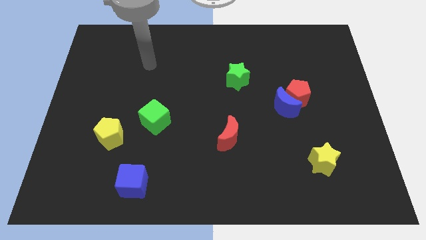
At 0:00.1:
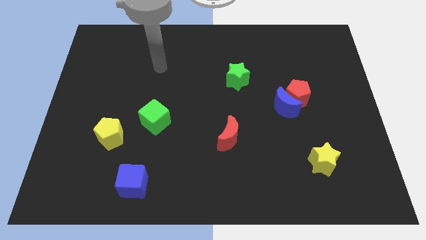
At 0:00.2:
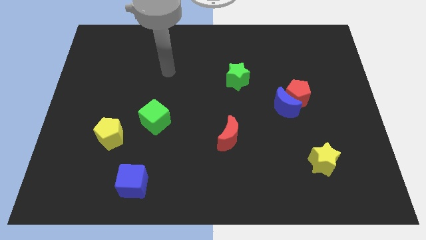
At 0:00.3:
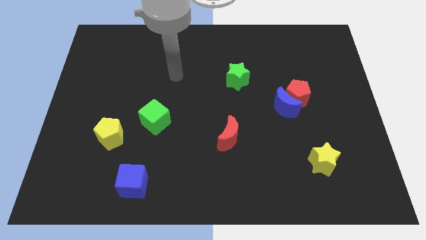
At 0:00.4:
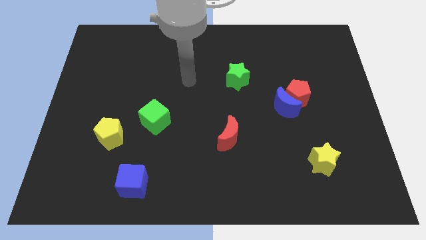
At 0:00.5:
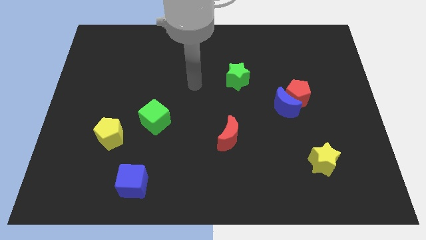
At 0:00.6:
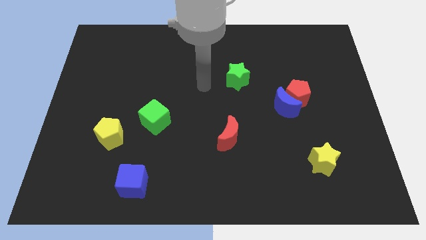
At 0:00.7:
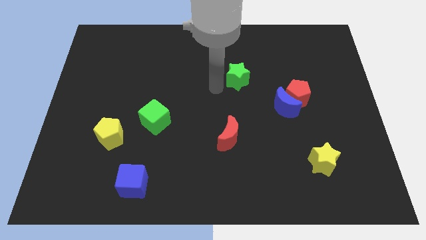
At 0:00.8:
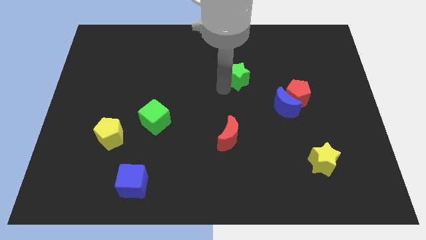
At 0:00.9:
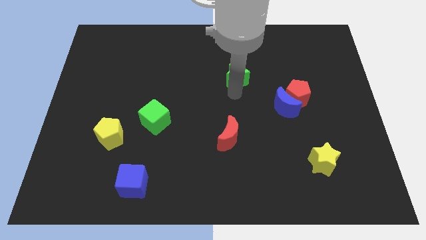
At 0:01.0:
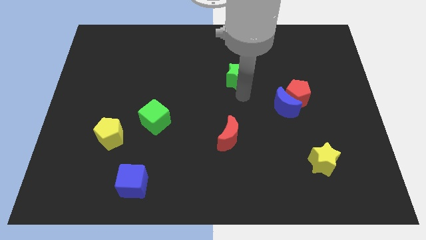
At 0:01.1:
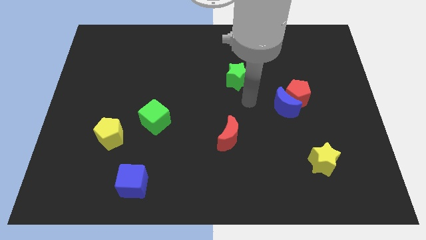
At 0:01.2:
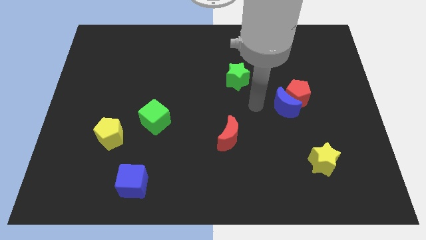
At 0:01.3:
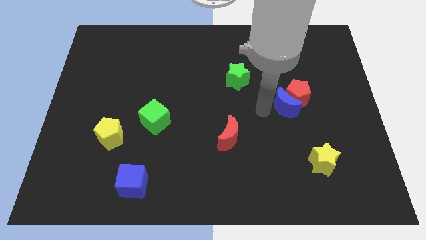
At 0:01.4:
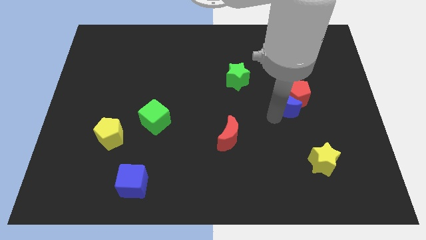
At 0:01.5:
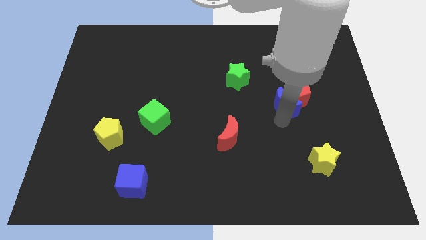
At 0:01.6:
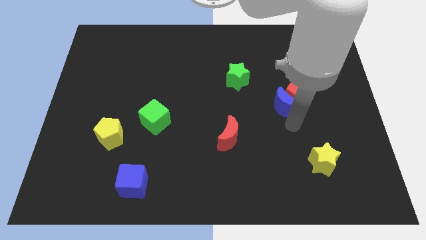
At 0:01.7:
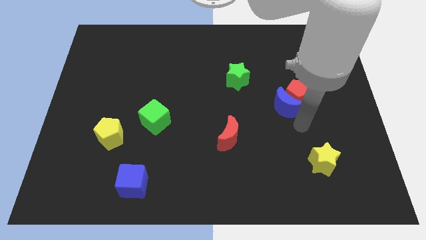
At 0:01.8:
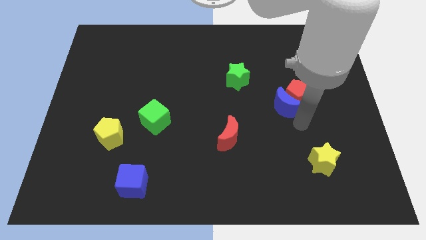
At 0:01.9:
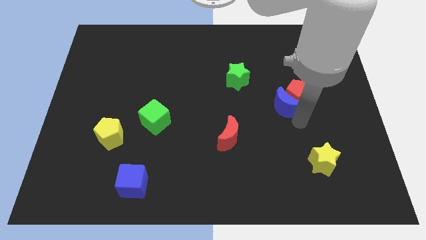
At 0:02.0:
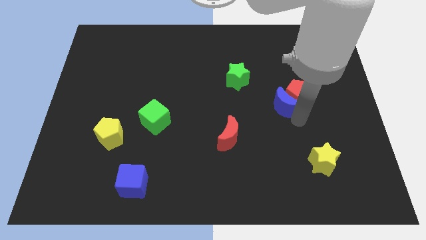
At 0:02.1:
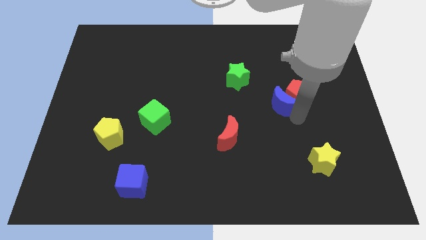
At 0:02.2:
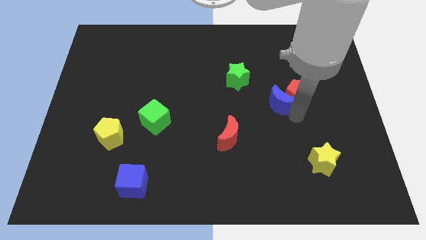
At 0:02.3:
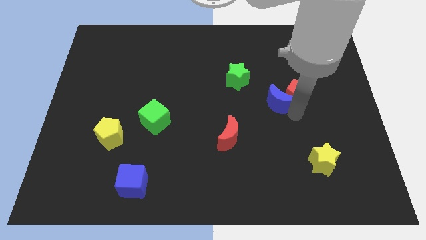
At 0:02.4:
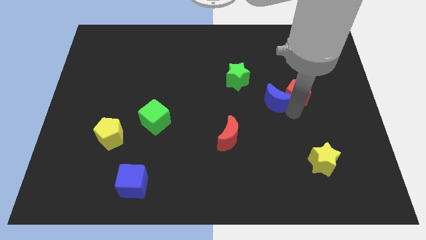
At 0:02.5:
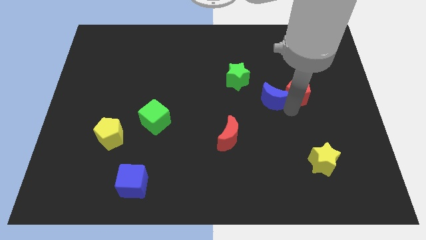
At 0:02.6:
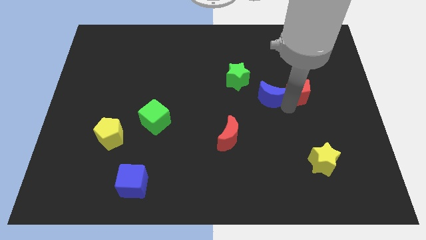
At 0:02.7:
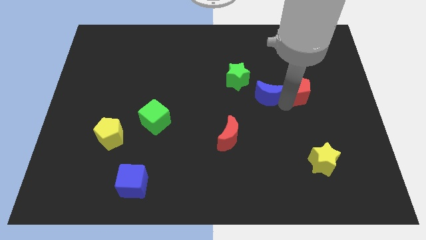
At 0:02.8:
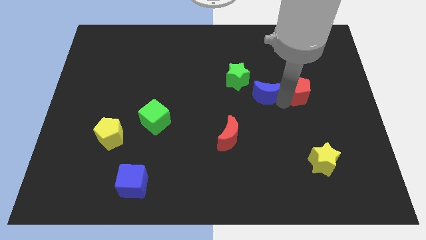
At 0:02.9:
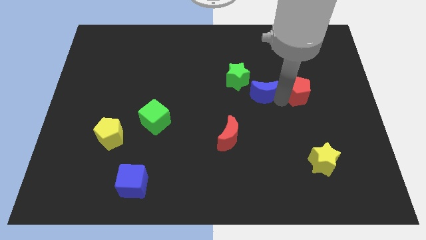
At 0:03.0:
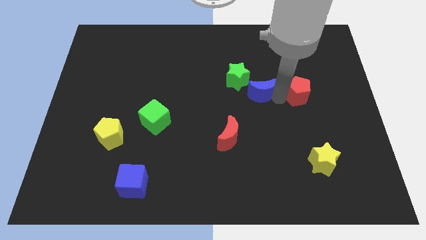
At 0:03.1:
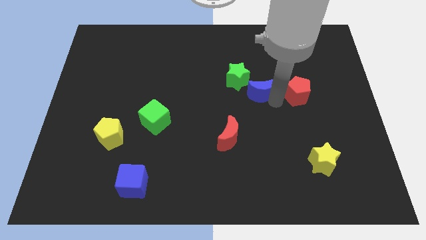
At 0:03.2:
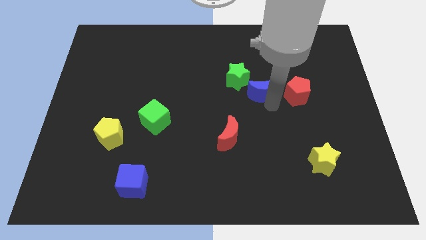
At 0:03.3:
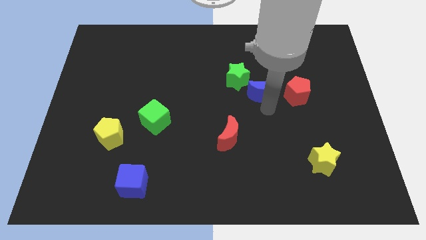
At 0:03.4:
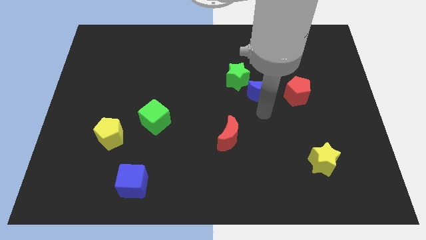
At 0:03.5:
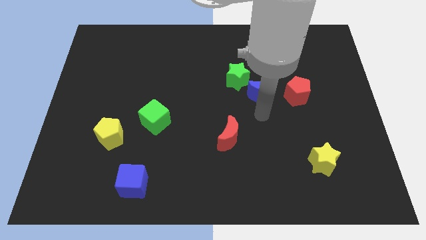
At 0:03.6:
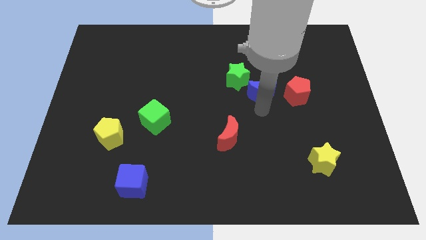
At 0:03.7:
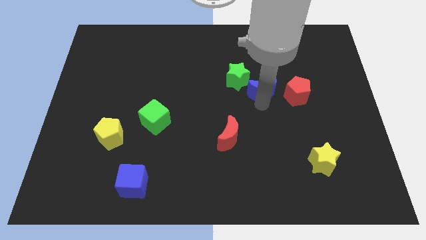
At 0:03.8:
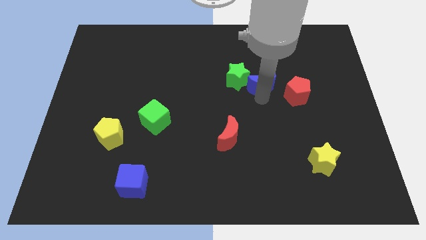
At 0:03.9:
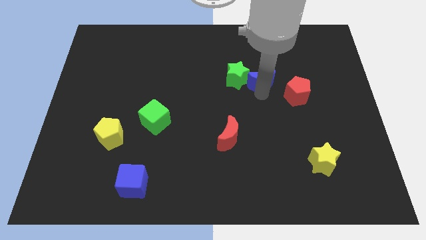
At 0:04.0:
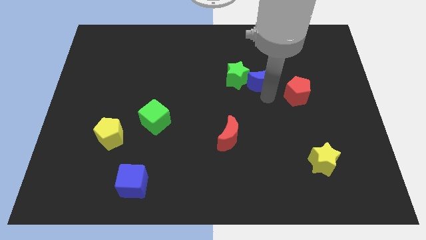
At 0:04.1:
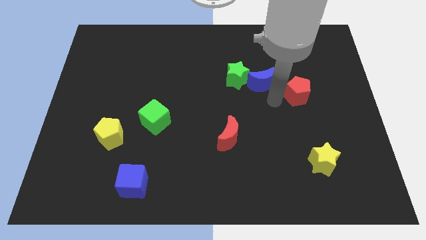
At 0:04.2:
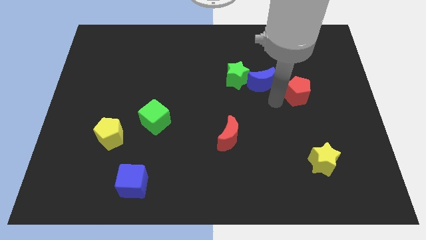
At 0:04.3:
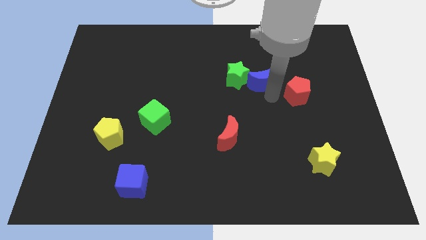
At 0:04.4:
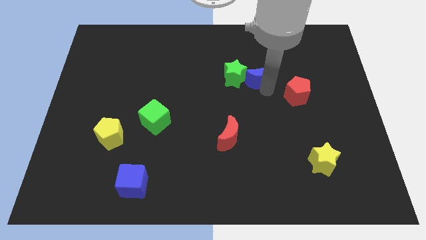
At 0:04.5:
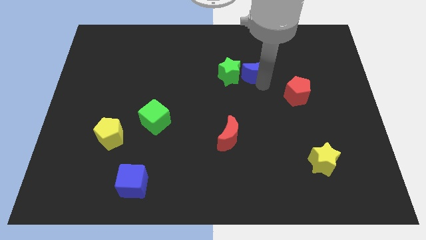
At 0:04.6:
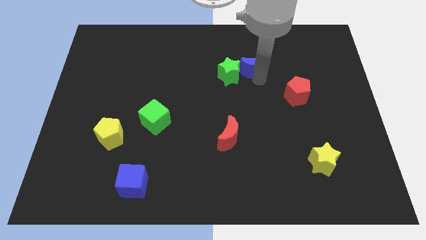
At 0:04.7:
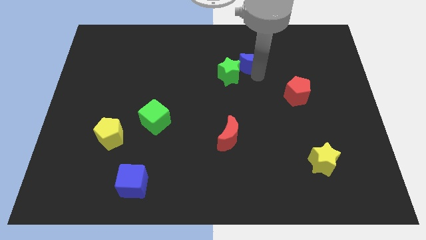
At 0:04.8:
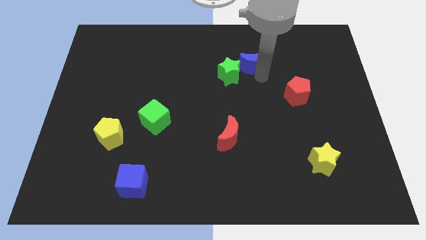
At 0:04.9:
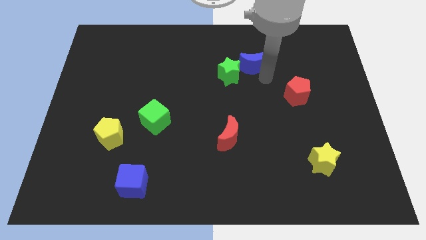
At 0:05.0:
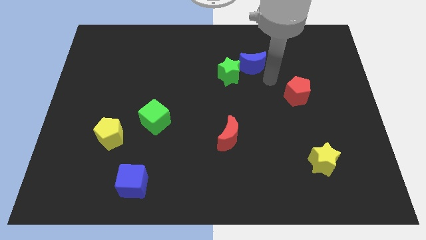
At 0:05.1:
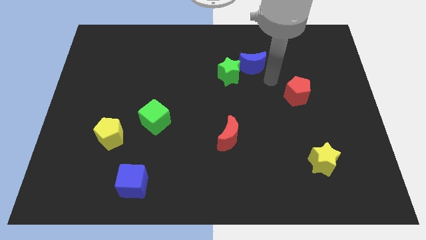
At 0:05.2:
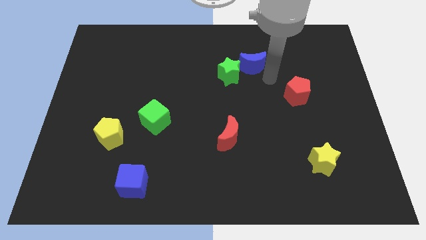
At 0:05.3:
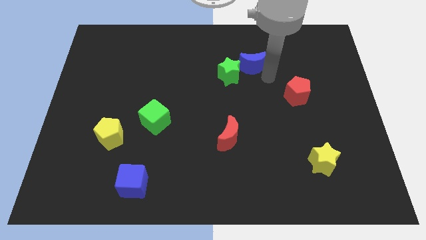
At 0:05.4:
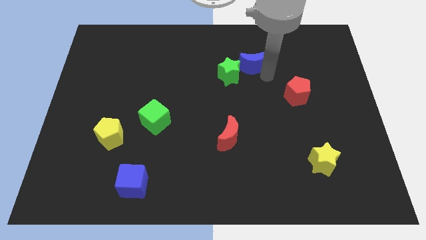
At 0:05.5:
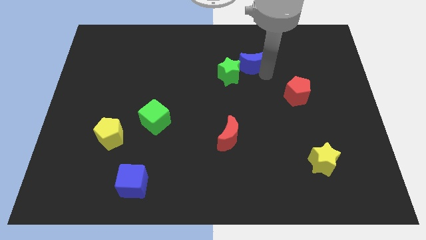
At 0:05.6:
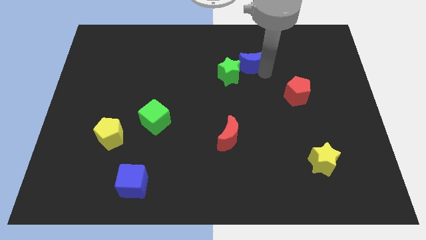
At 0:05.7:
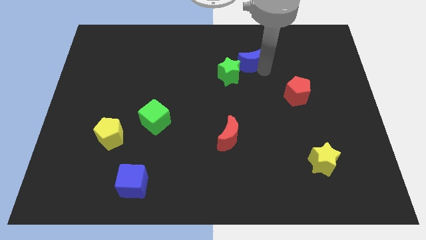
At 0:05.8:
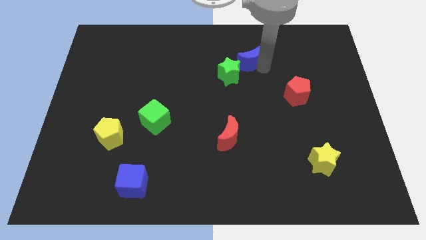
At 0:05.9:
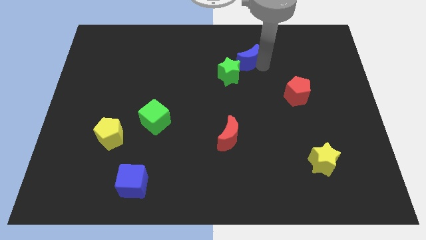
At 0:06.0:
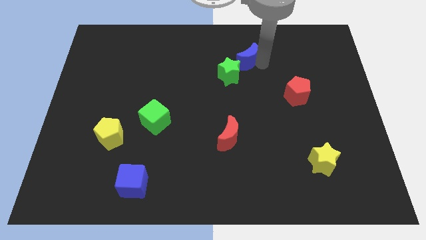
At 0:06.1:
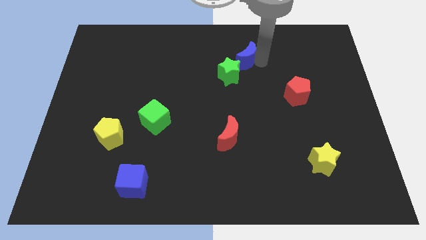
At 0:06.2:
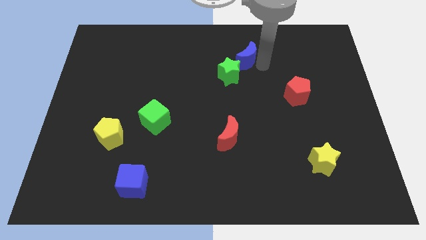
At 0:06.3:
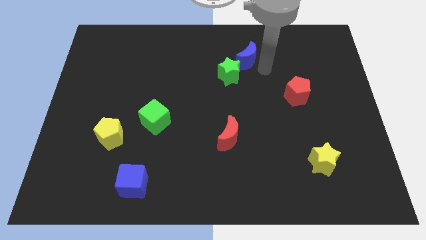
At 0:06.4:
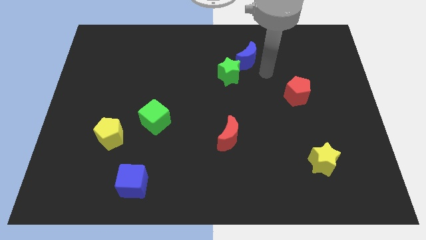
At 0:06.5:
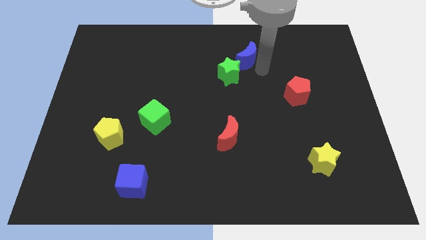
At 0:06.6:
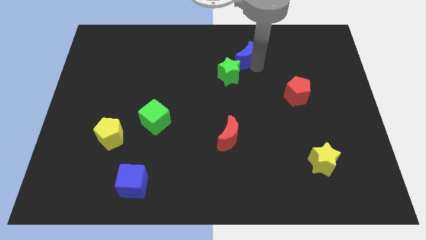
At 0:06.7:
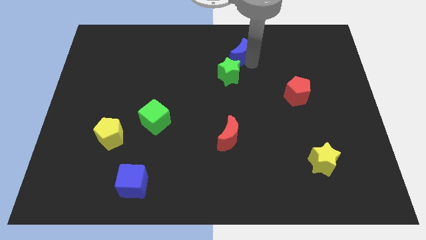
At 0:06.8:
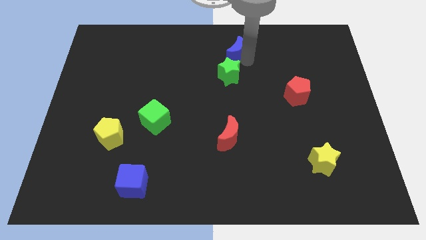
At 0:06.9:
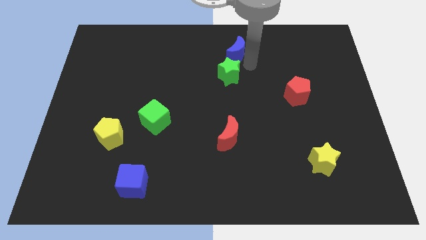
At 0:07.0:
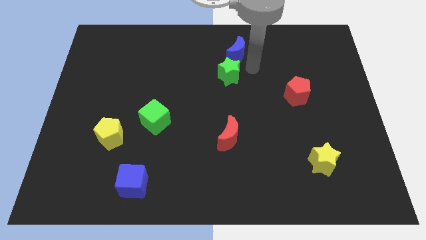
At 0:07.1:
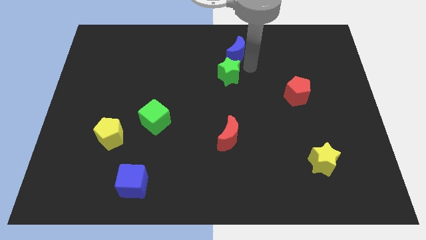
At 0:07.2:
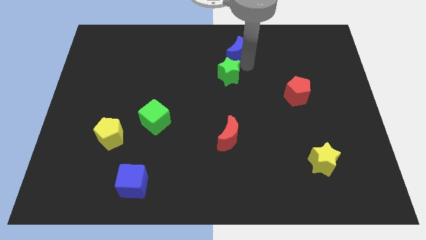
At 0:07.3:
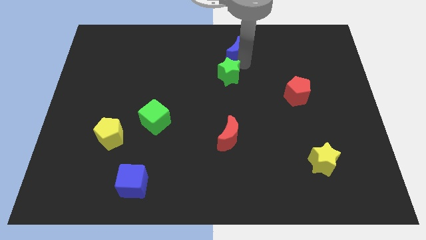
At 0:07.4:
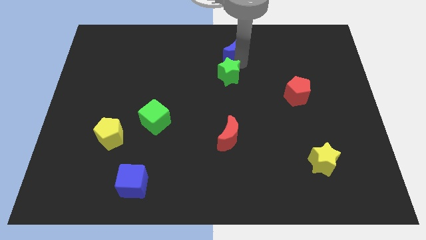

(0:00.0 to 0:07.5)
move the blue moon to the top side

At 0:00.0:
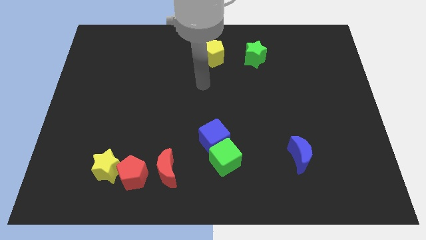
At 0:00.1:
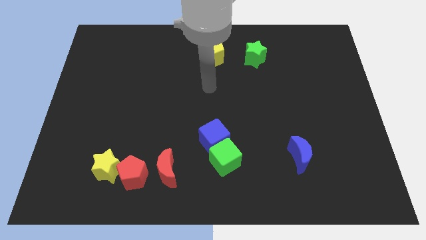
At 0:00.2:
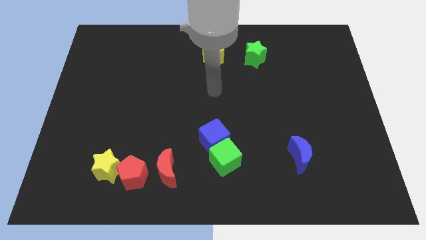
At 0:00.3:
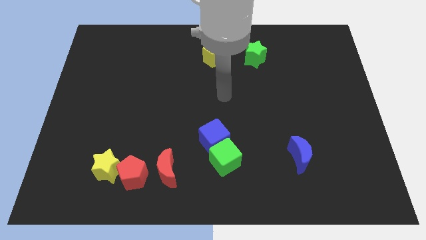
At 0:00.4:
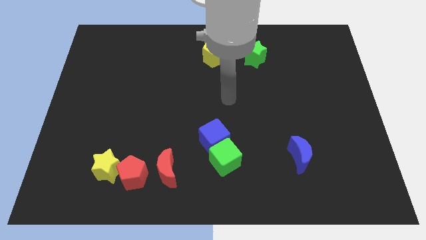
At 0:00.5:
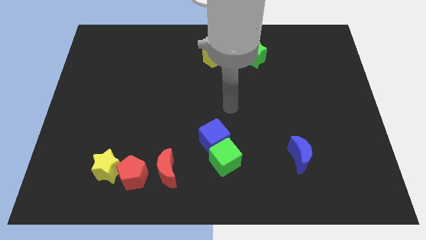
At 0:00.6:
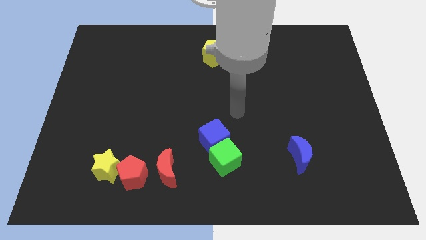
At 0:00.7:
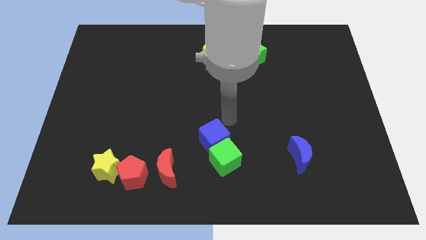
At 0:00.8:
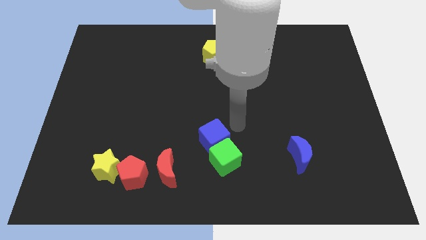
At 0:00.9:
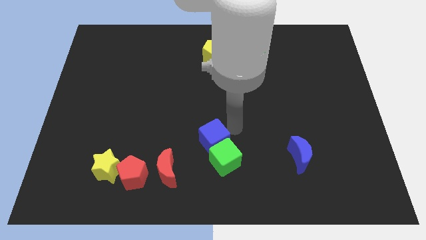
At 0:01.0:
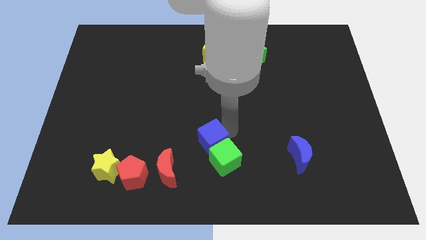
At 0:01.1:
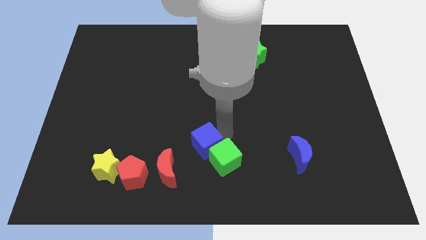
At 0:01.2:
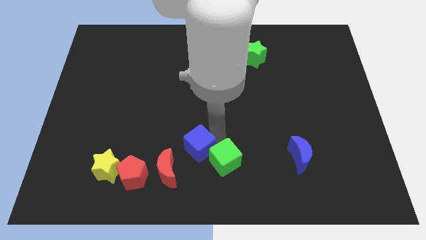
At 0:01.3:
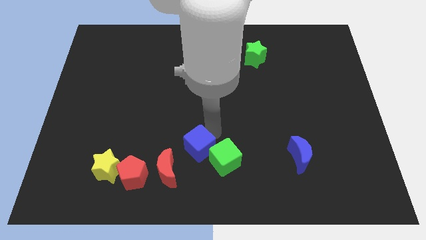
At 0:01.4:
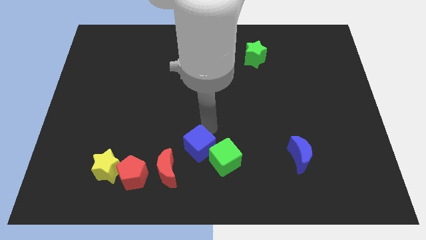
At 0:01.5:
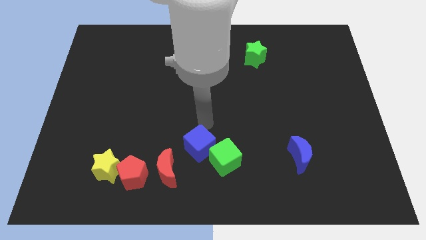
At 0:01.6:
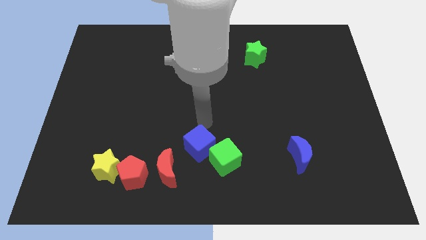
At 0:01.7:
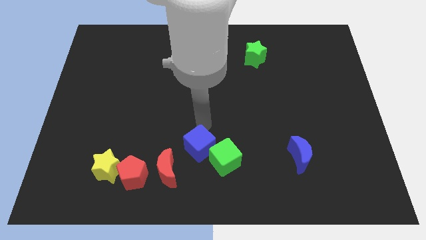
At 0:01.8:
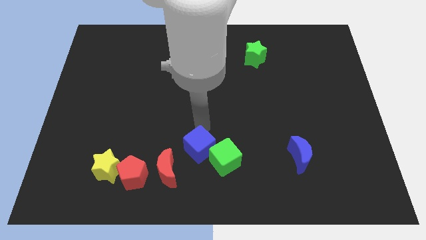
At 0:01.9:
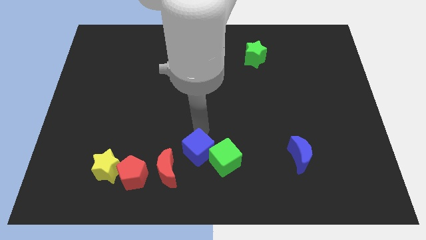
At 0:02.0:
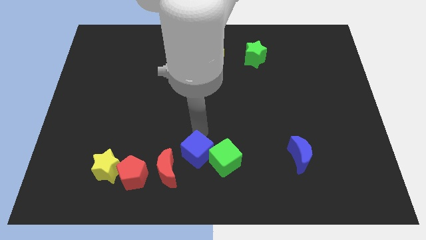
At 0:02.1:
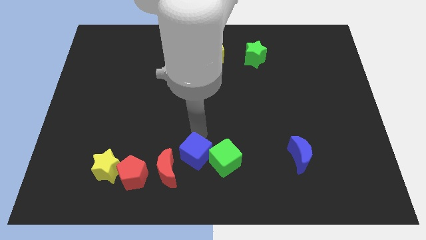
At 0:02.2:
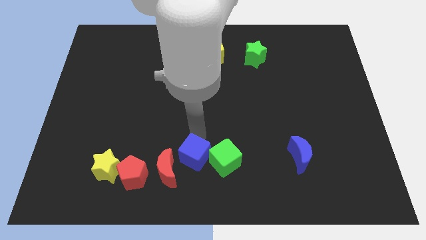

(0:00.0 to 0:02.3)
slide the blue cube to the bottom side
